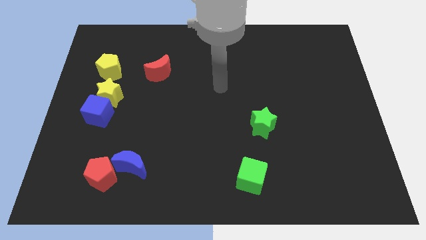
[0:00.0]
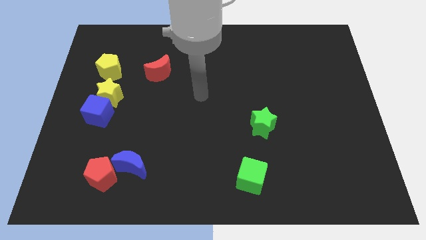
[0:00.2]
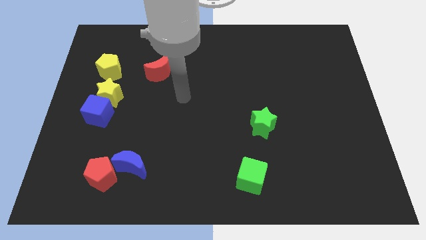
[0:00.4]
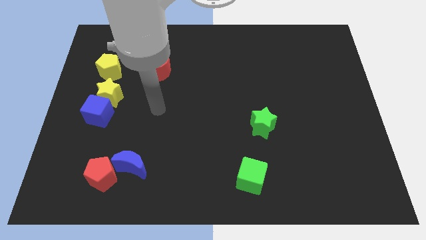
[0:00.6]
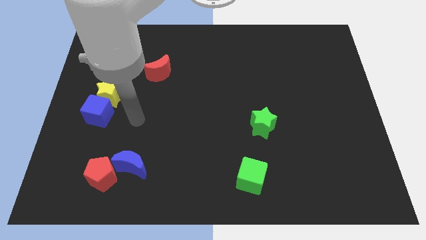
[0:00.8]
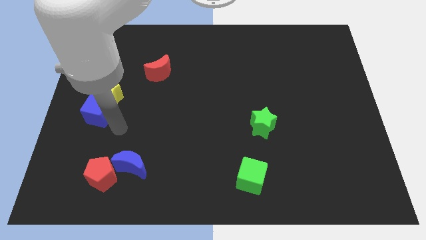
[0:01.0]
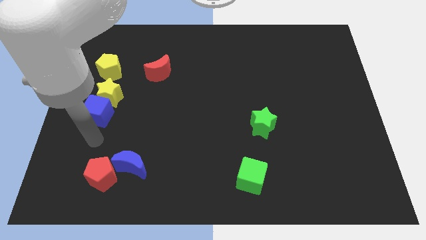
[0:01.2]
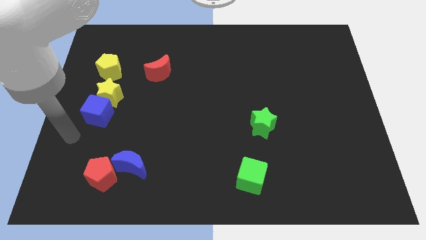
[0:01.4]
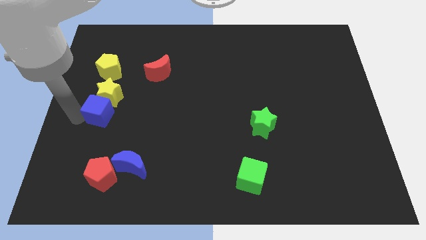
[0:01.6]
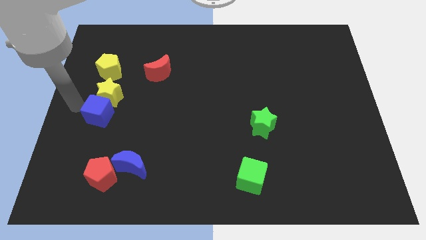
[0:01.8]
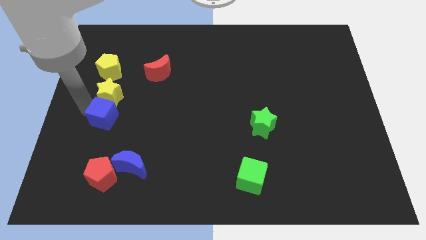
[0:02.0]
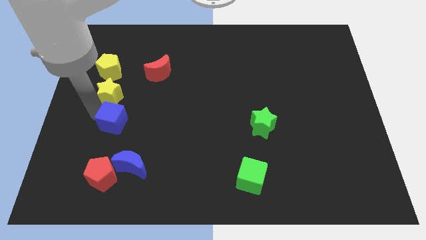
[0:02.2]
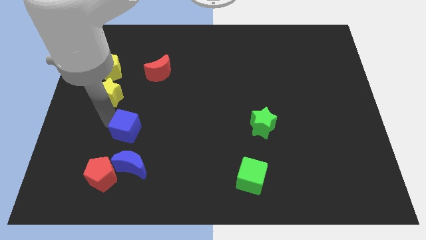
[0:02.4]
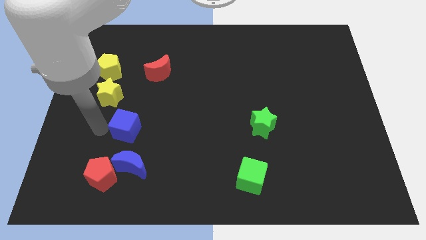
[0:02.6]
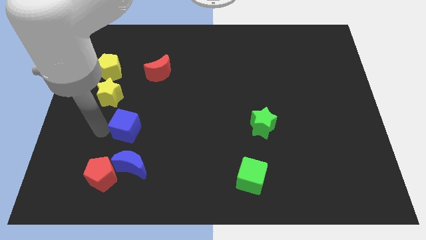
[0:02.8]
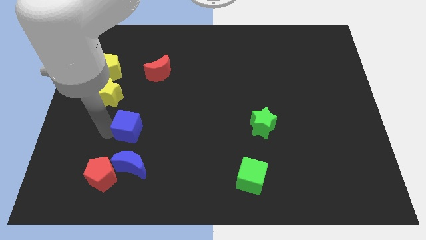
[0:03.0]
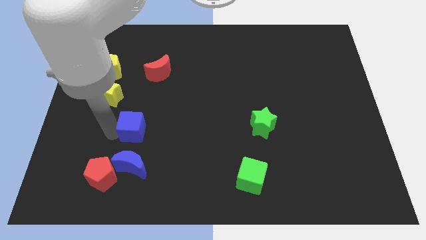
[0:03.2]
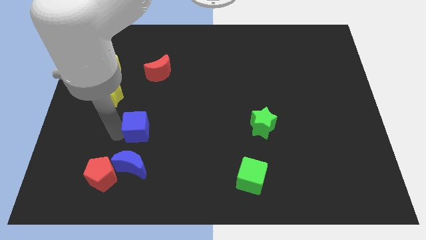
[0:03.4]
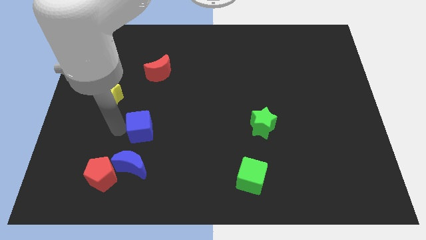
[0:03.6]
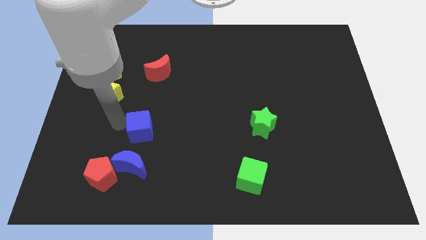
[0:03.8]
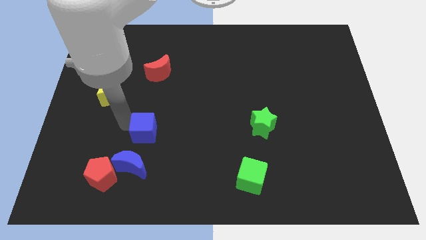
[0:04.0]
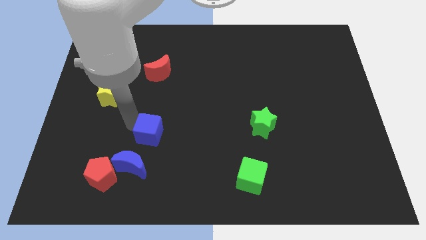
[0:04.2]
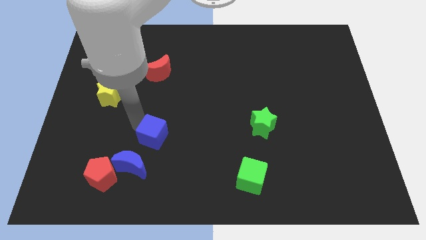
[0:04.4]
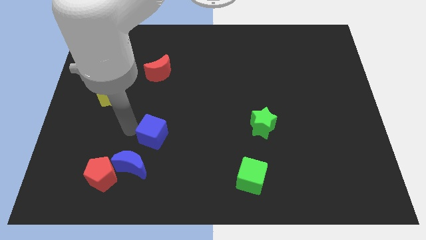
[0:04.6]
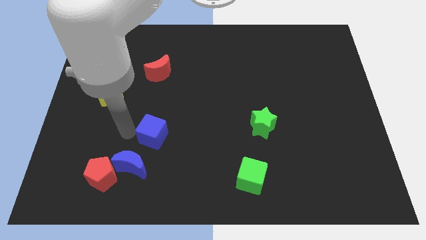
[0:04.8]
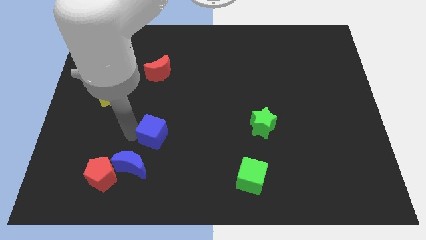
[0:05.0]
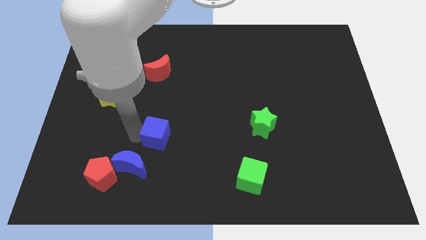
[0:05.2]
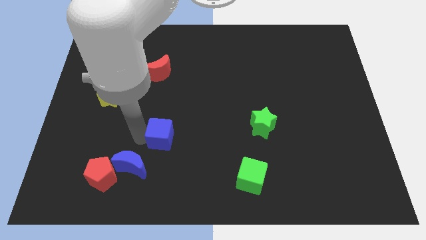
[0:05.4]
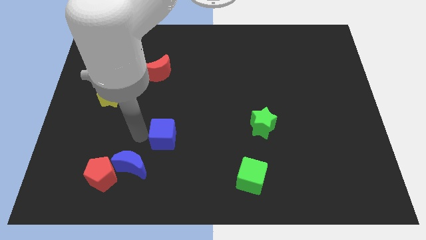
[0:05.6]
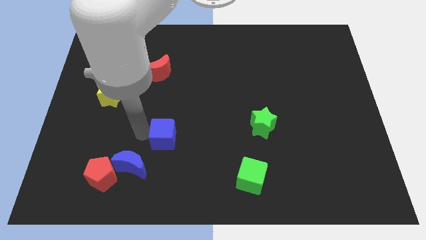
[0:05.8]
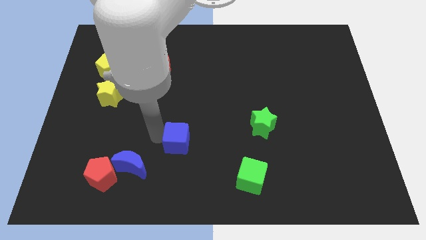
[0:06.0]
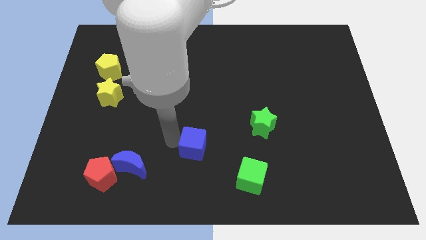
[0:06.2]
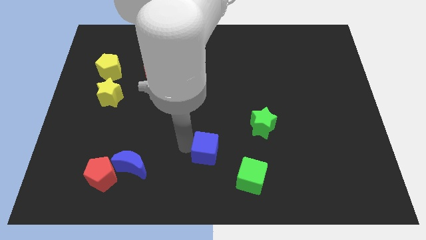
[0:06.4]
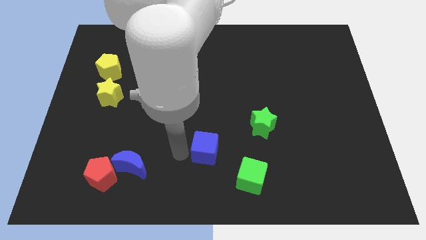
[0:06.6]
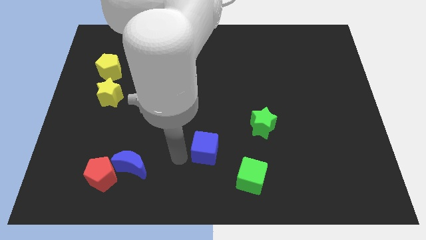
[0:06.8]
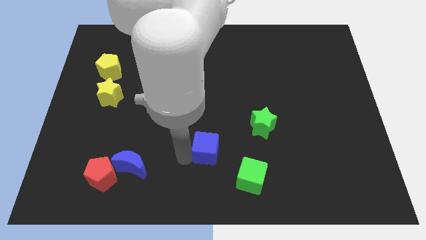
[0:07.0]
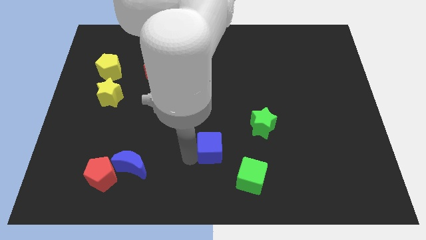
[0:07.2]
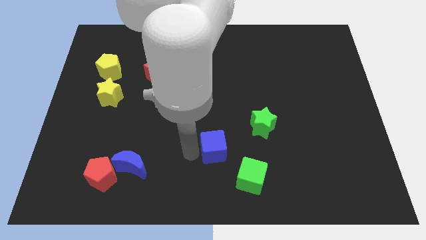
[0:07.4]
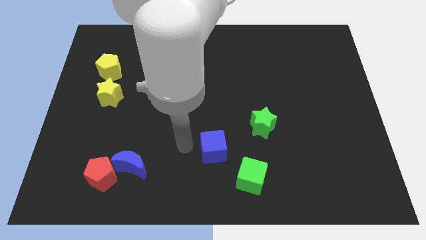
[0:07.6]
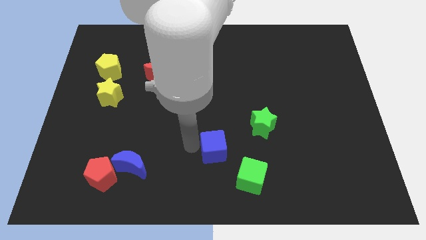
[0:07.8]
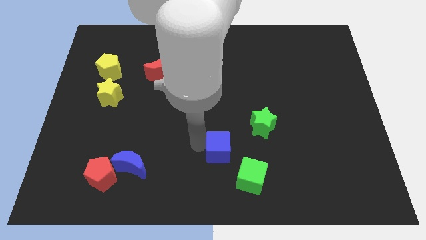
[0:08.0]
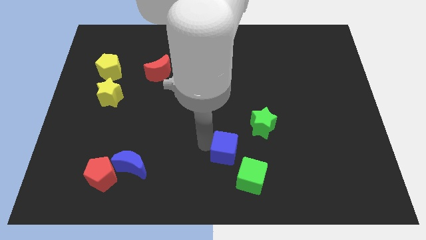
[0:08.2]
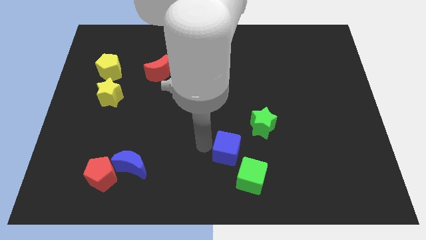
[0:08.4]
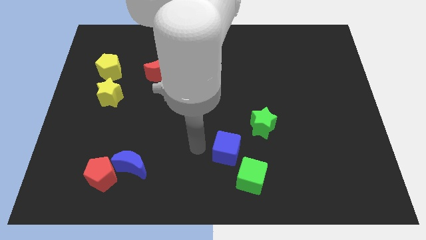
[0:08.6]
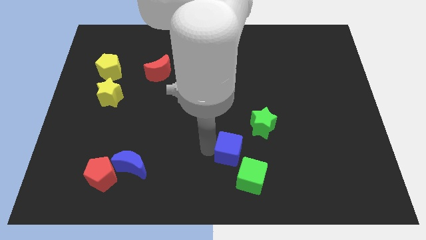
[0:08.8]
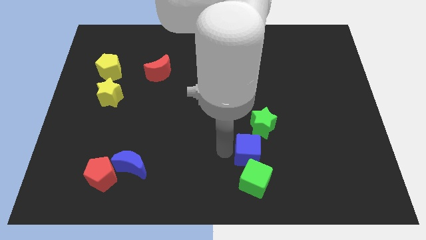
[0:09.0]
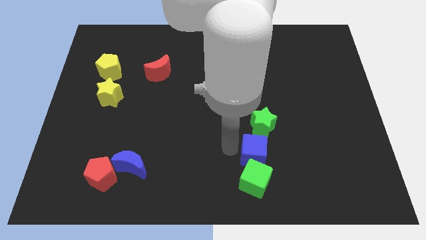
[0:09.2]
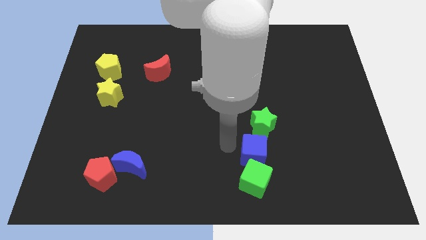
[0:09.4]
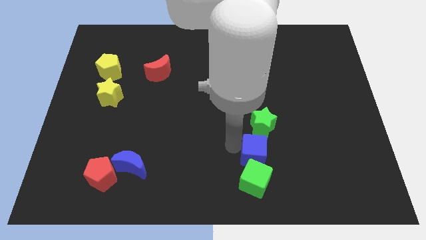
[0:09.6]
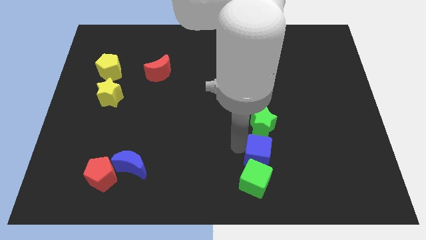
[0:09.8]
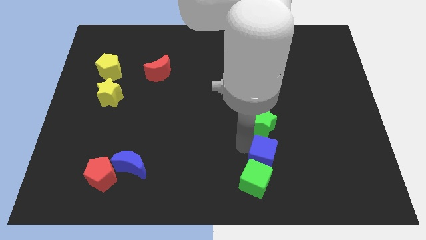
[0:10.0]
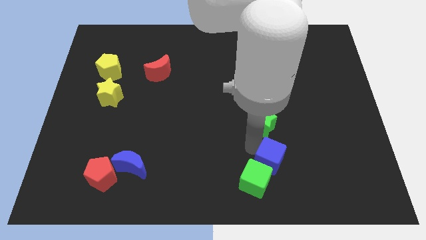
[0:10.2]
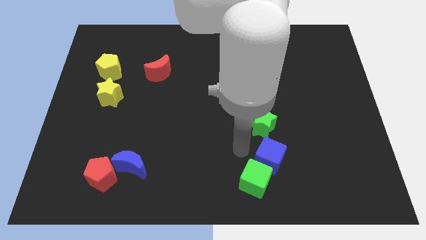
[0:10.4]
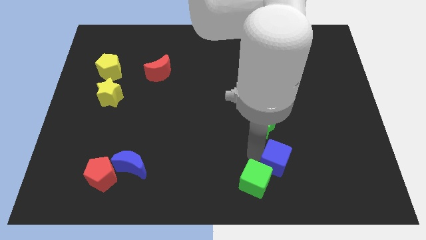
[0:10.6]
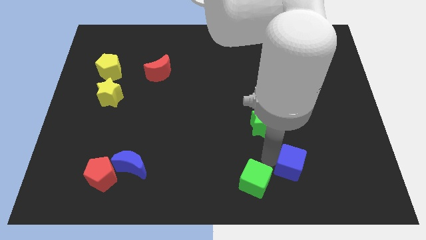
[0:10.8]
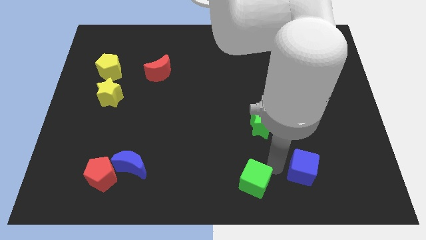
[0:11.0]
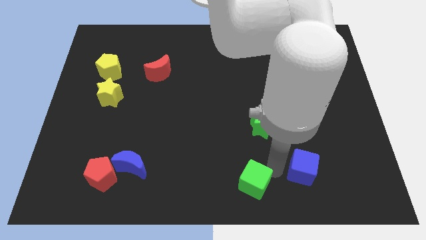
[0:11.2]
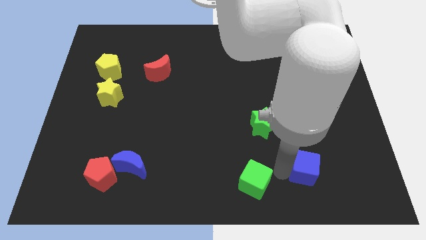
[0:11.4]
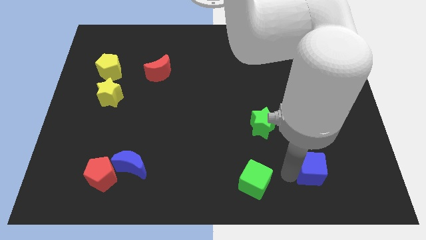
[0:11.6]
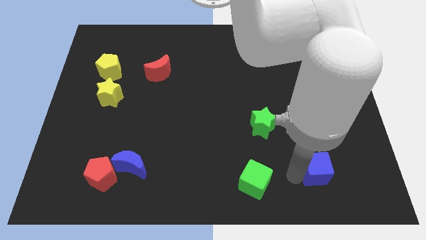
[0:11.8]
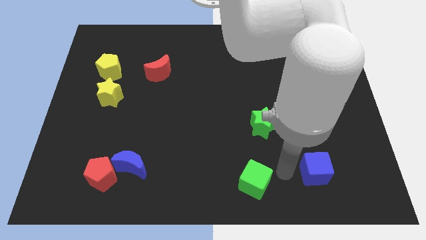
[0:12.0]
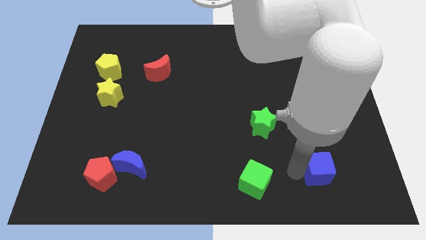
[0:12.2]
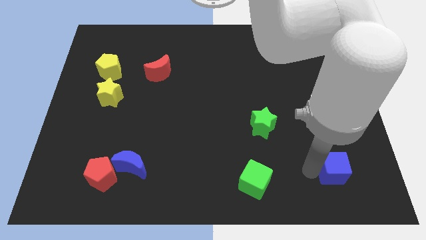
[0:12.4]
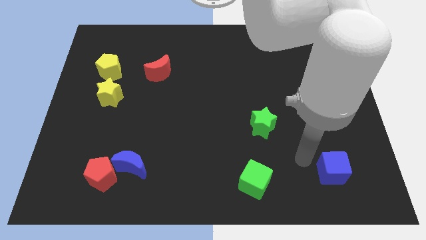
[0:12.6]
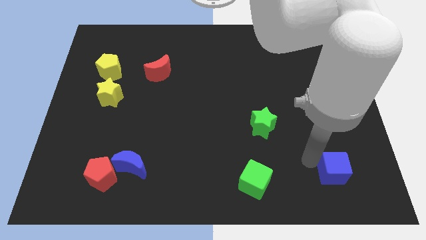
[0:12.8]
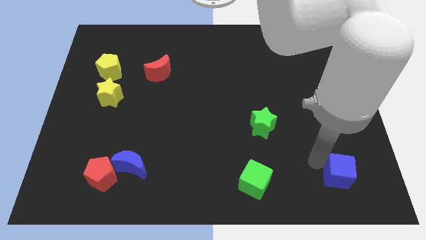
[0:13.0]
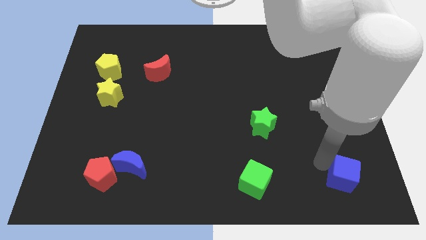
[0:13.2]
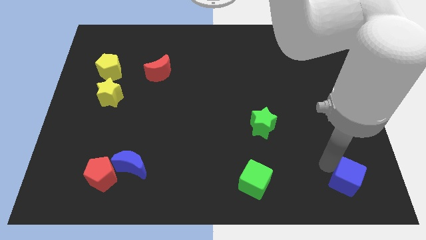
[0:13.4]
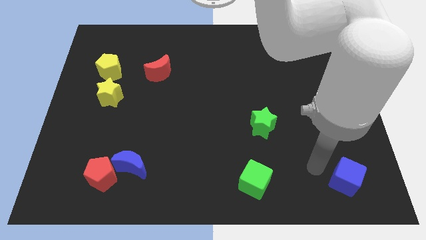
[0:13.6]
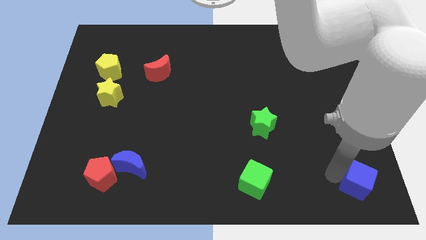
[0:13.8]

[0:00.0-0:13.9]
slide the blue cube to the bottom right of the board
